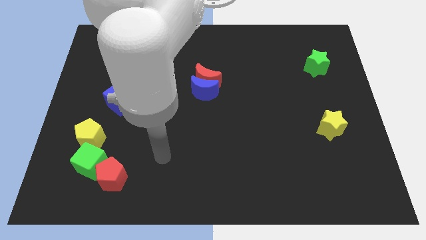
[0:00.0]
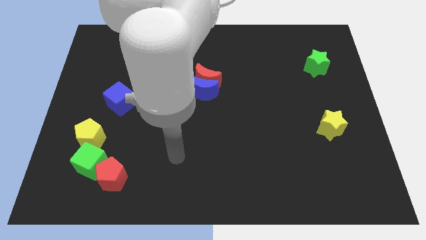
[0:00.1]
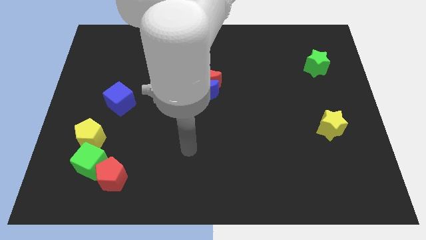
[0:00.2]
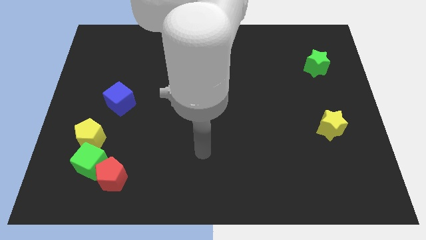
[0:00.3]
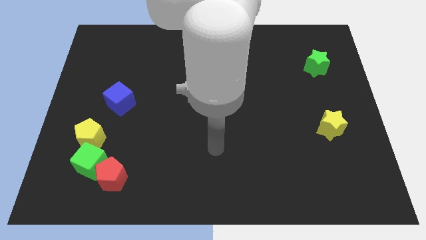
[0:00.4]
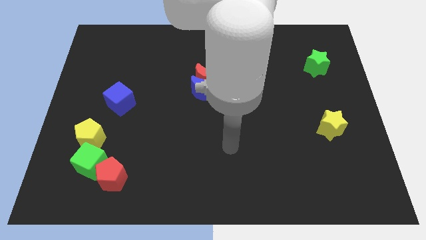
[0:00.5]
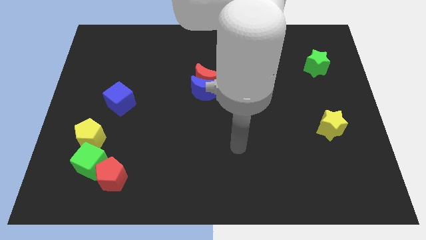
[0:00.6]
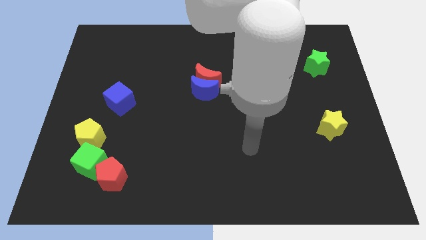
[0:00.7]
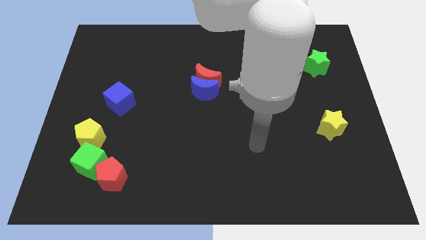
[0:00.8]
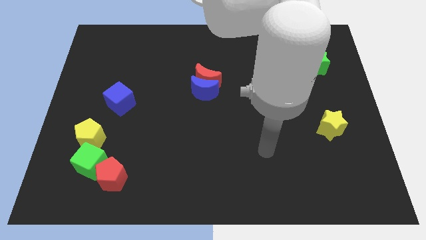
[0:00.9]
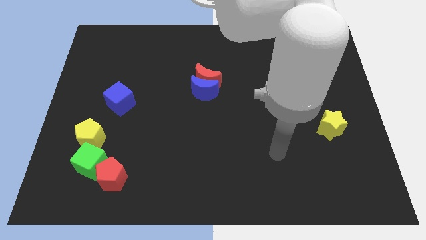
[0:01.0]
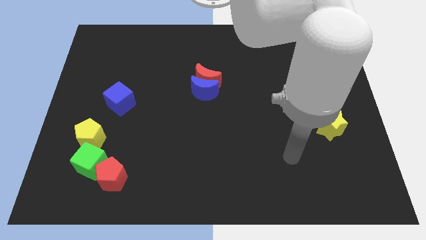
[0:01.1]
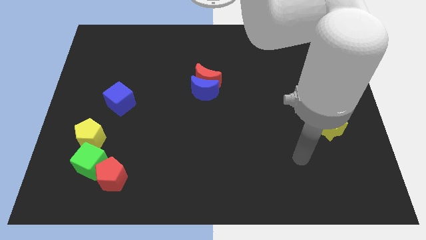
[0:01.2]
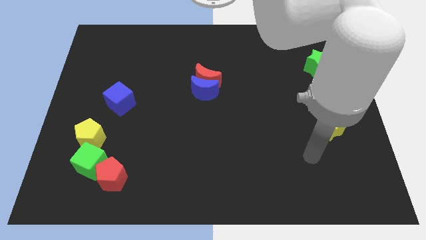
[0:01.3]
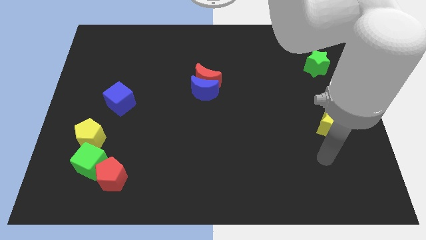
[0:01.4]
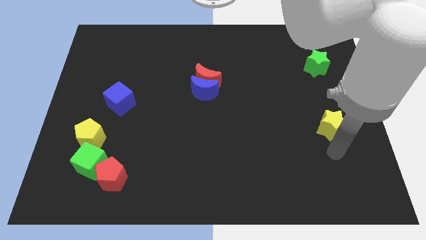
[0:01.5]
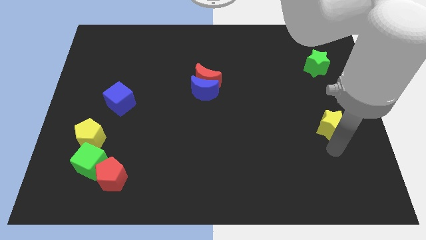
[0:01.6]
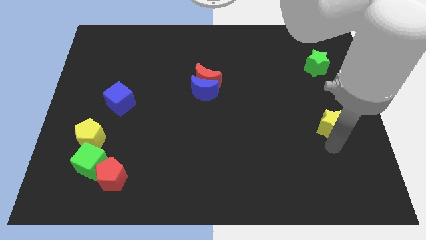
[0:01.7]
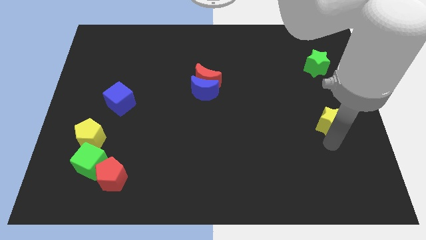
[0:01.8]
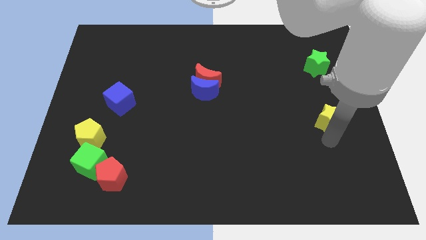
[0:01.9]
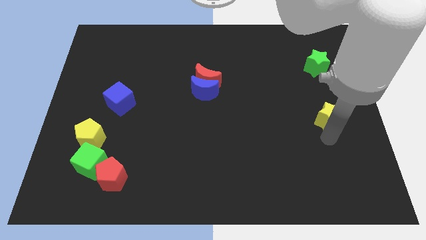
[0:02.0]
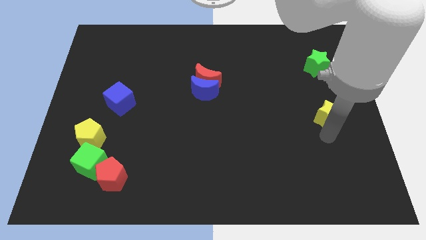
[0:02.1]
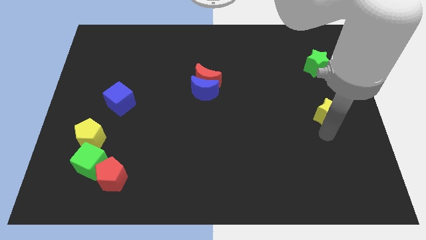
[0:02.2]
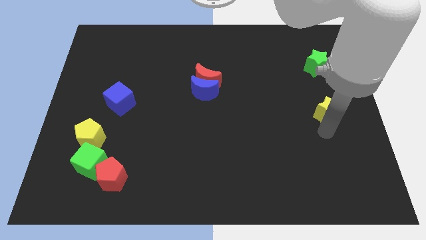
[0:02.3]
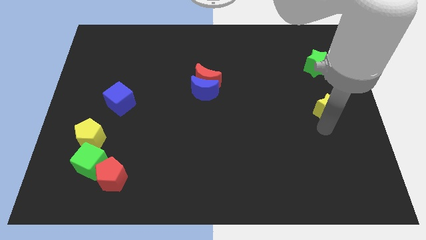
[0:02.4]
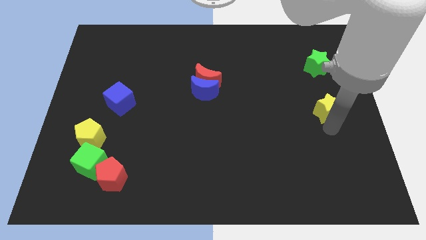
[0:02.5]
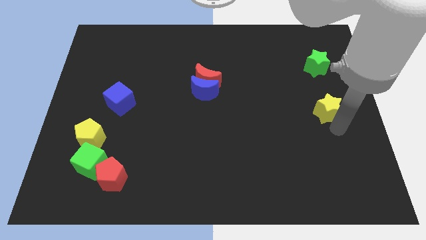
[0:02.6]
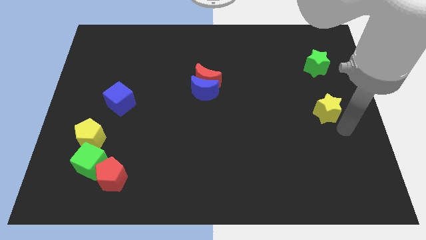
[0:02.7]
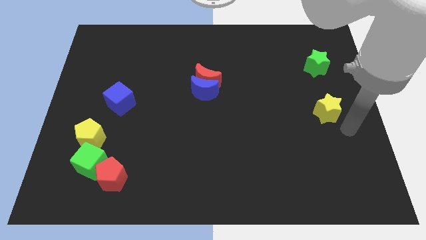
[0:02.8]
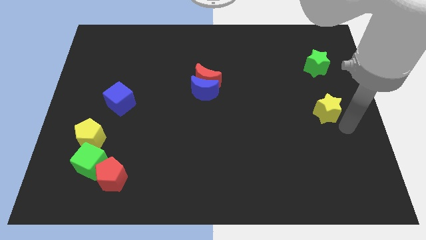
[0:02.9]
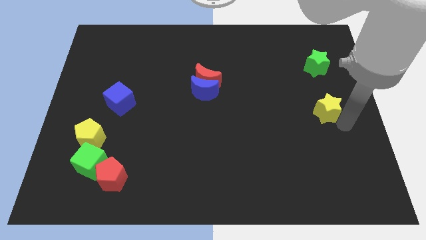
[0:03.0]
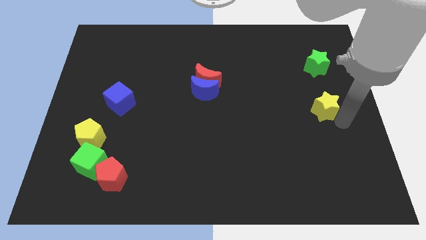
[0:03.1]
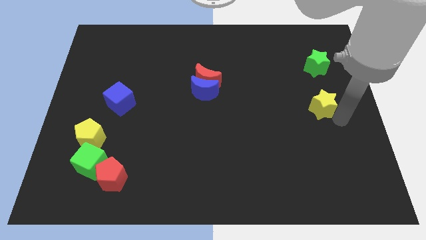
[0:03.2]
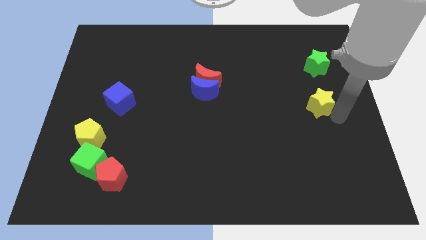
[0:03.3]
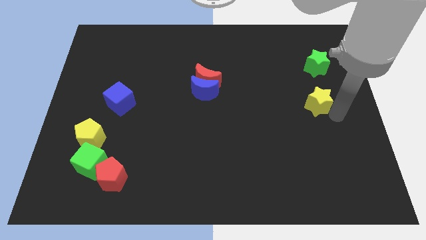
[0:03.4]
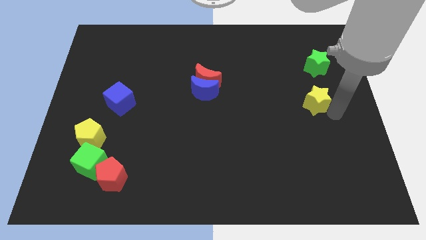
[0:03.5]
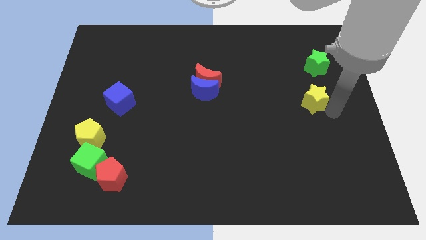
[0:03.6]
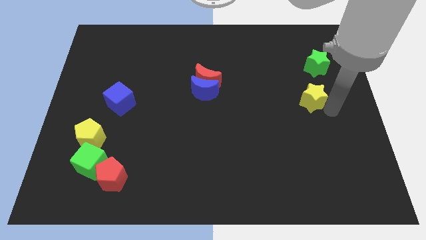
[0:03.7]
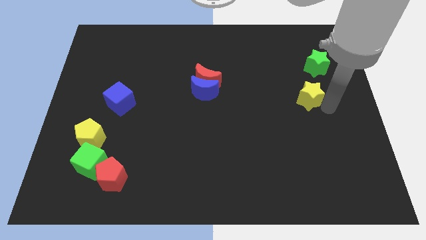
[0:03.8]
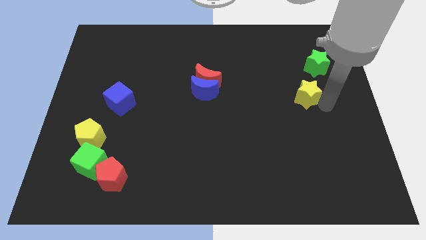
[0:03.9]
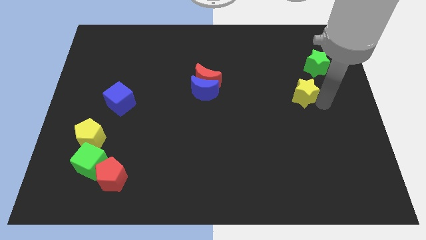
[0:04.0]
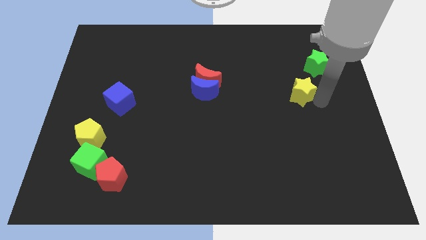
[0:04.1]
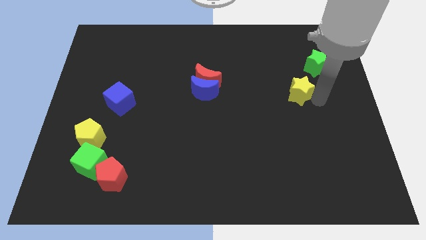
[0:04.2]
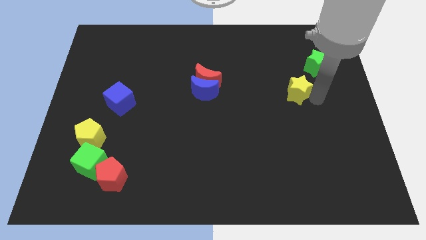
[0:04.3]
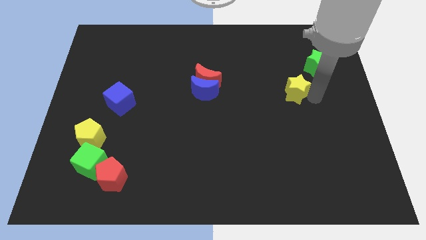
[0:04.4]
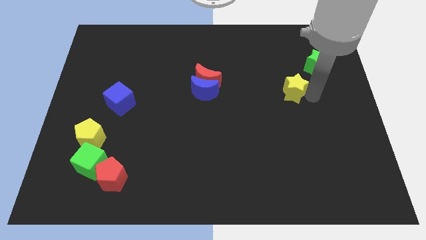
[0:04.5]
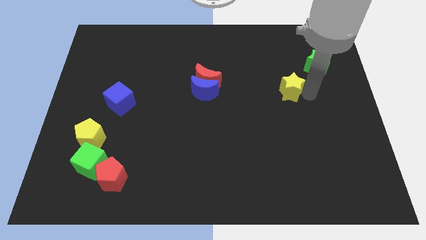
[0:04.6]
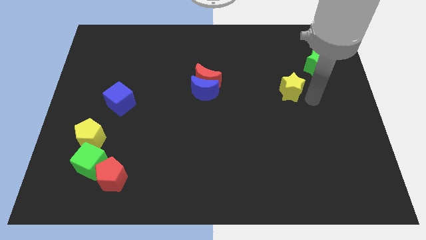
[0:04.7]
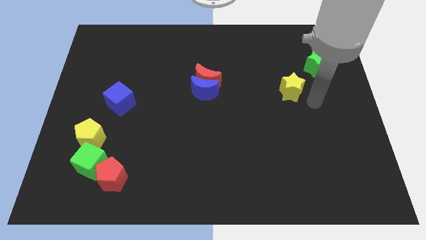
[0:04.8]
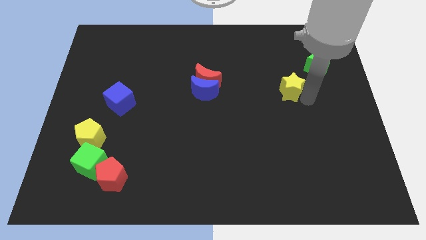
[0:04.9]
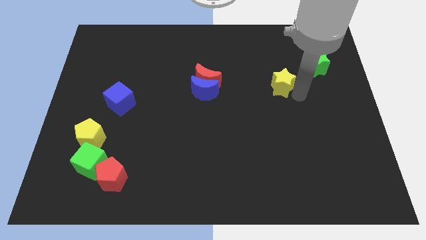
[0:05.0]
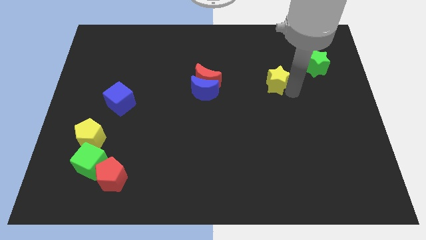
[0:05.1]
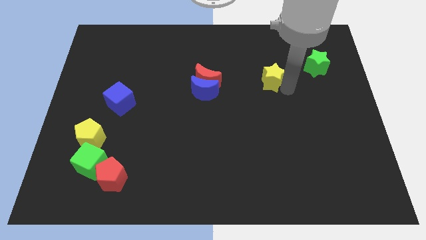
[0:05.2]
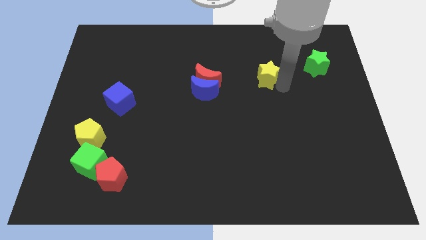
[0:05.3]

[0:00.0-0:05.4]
move the yellow star upwards and then to the left

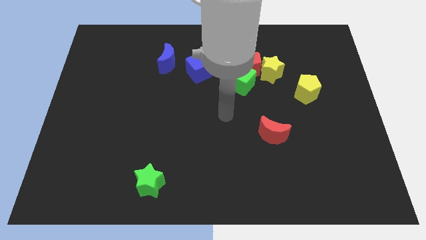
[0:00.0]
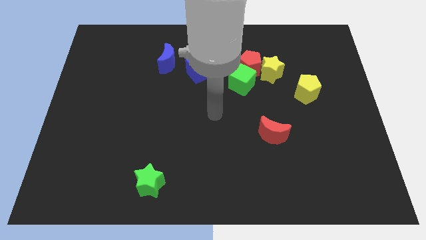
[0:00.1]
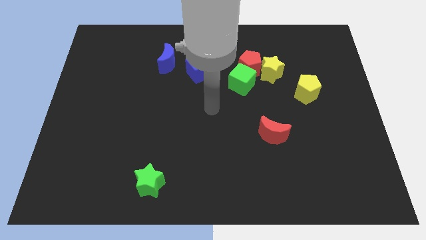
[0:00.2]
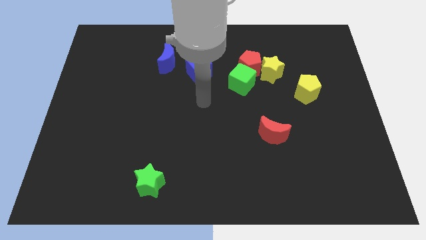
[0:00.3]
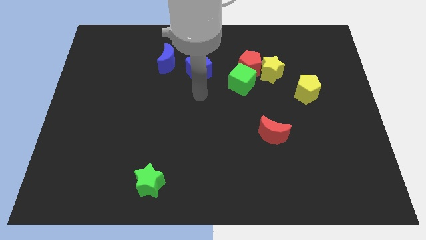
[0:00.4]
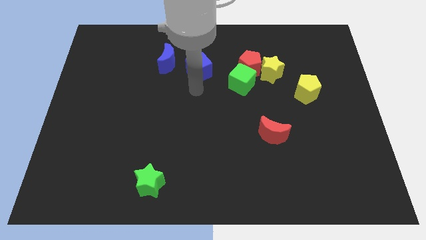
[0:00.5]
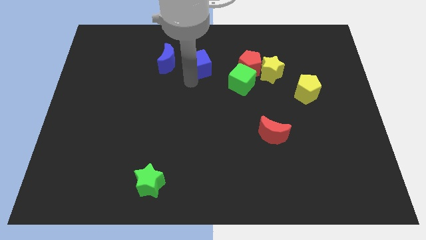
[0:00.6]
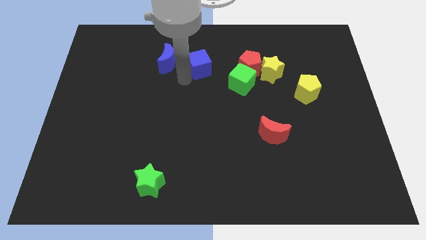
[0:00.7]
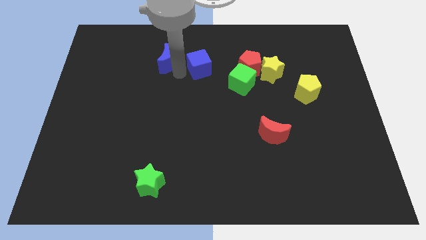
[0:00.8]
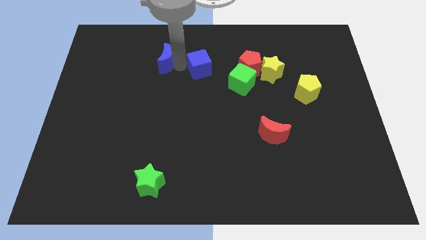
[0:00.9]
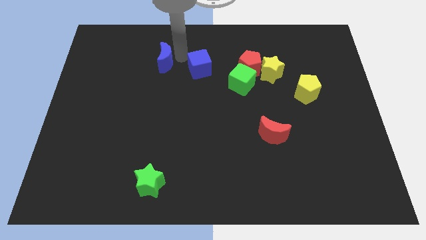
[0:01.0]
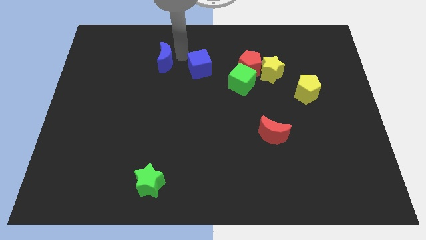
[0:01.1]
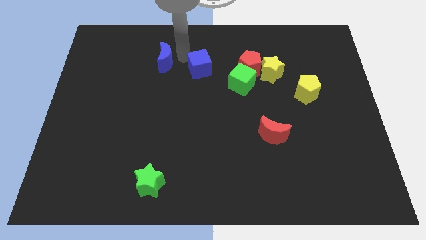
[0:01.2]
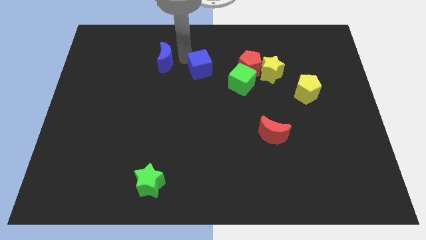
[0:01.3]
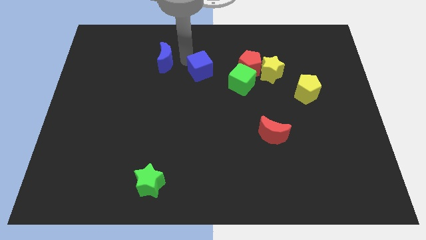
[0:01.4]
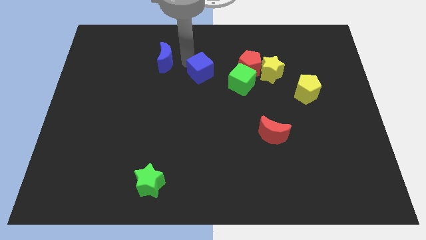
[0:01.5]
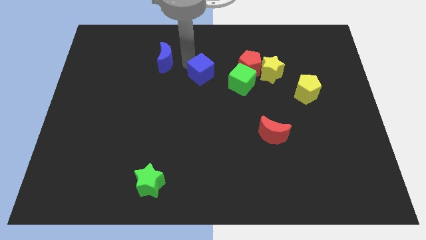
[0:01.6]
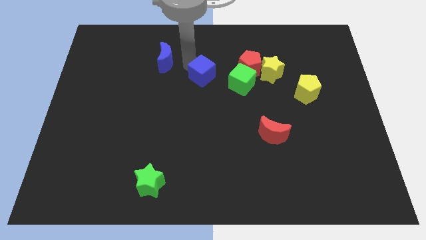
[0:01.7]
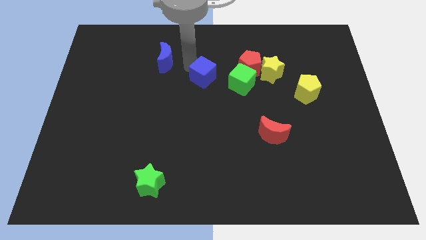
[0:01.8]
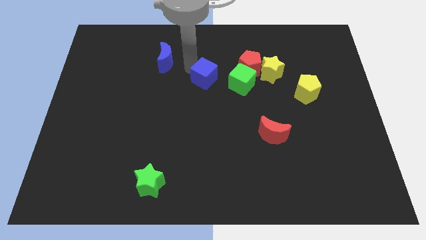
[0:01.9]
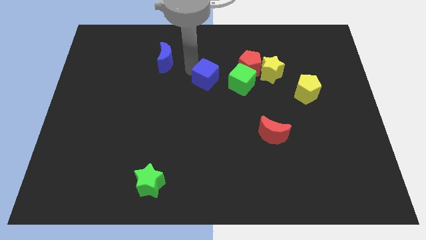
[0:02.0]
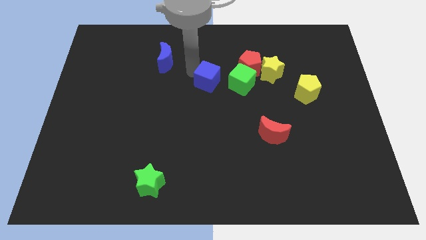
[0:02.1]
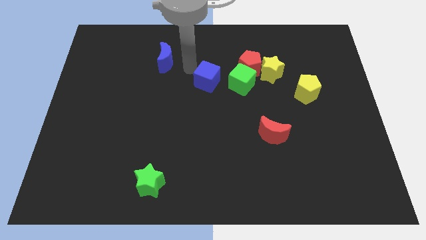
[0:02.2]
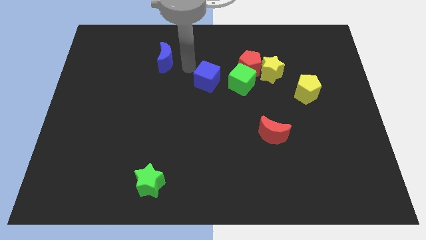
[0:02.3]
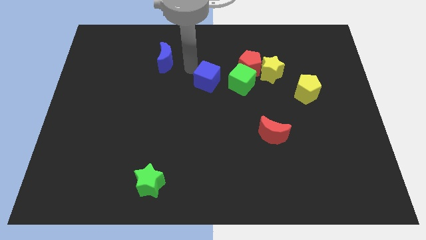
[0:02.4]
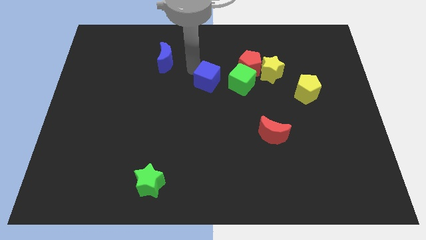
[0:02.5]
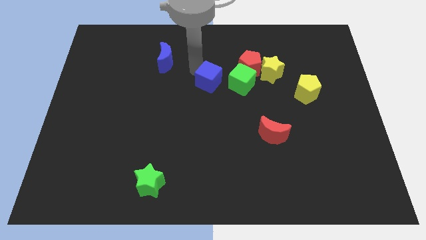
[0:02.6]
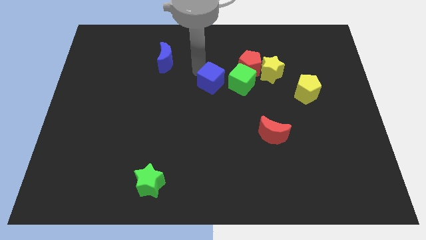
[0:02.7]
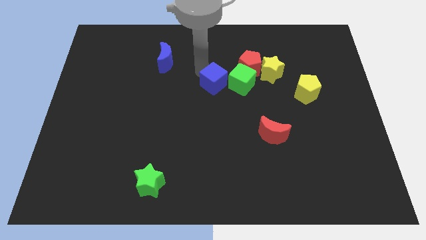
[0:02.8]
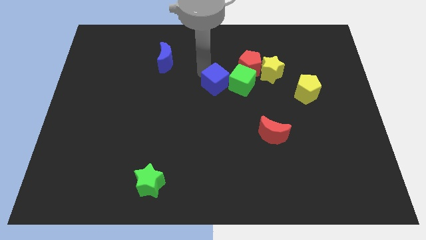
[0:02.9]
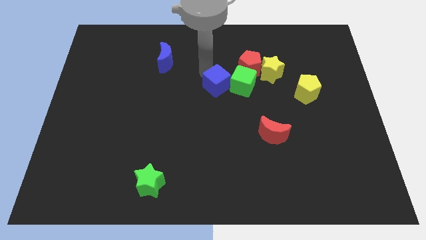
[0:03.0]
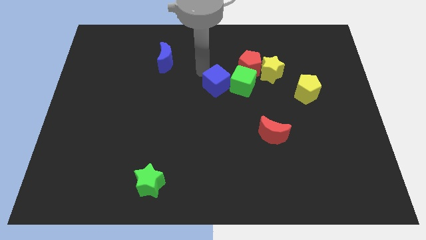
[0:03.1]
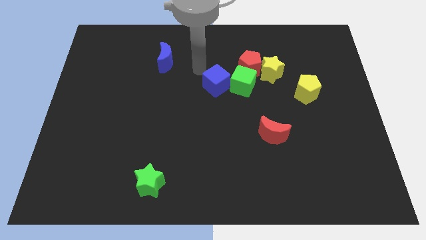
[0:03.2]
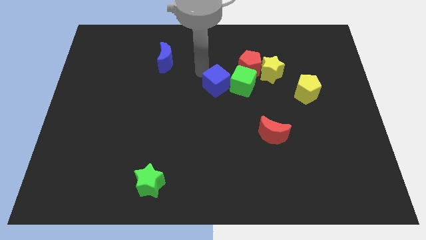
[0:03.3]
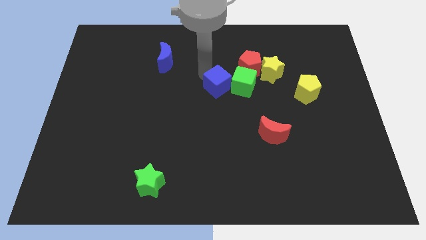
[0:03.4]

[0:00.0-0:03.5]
slightly move the blue cube down and then right
